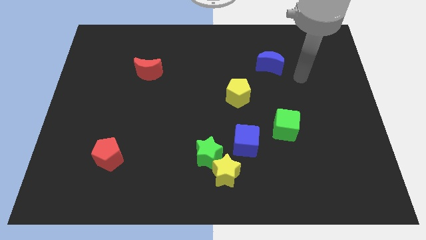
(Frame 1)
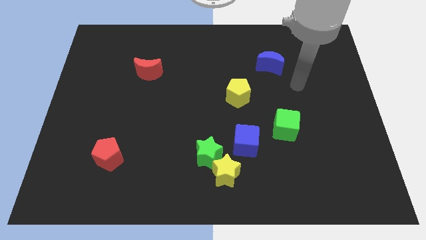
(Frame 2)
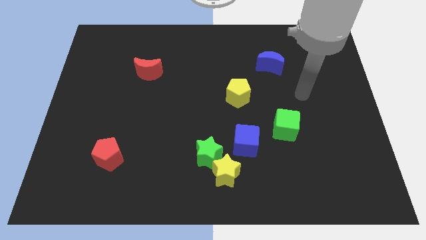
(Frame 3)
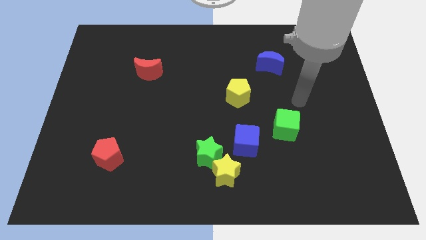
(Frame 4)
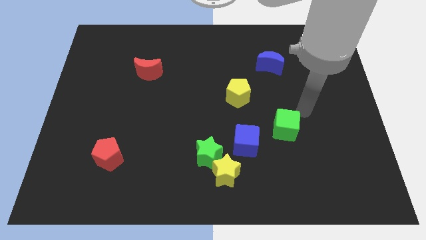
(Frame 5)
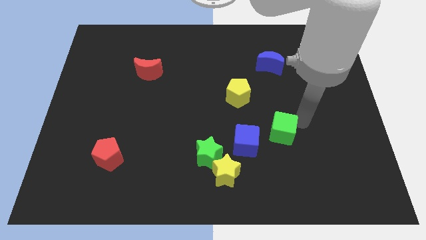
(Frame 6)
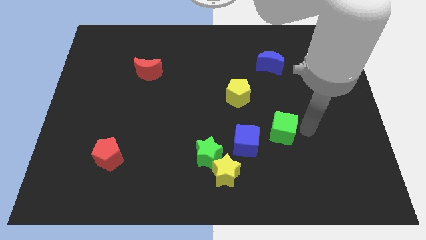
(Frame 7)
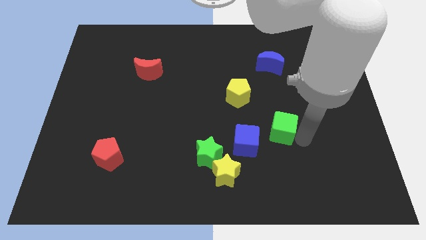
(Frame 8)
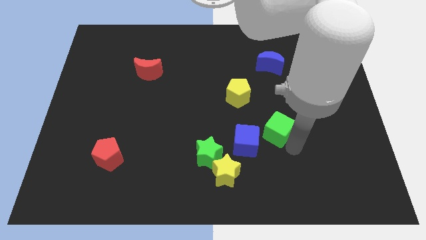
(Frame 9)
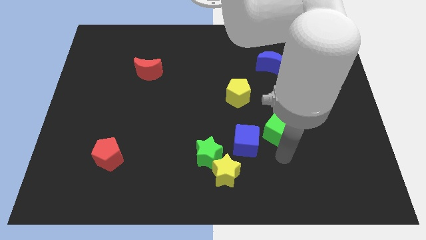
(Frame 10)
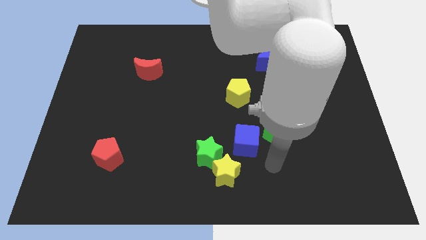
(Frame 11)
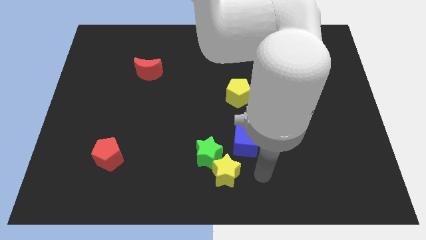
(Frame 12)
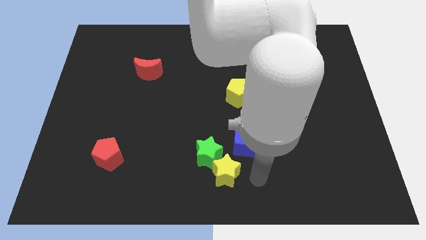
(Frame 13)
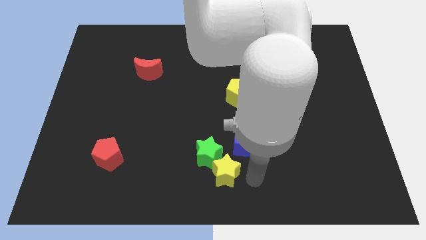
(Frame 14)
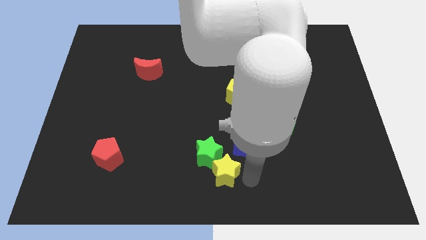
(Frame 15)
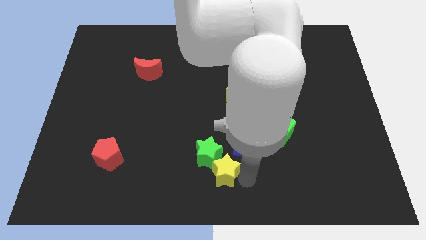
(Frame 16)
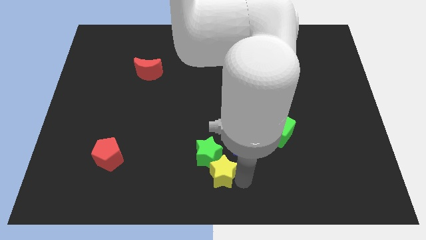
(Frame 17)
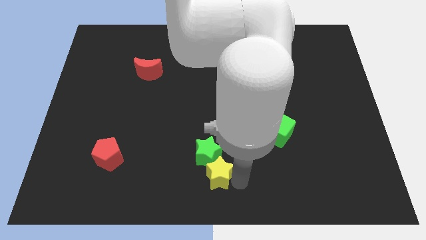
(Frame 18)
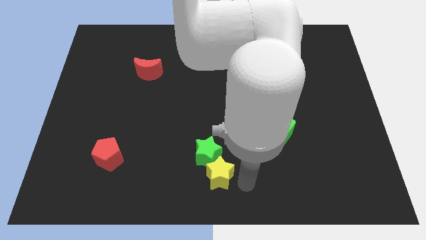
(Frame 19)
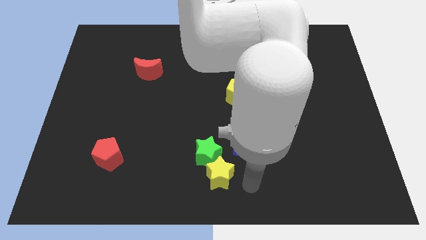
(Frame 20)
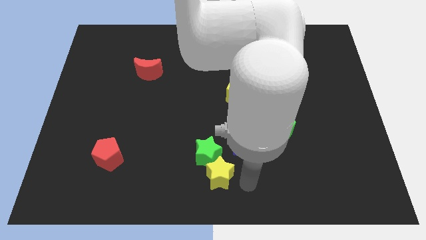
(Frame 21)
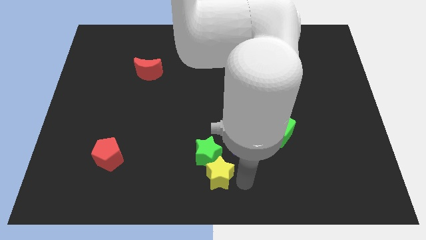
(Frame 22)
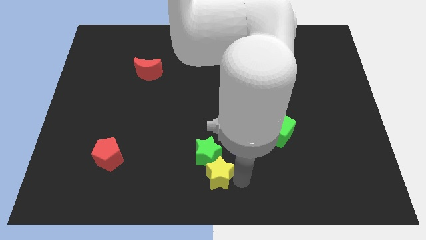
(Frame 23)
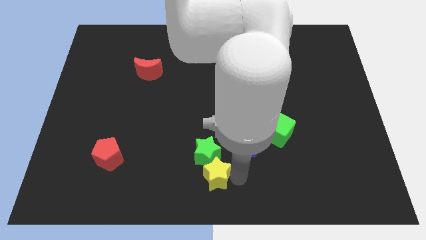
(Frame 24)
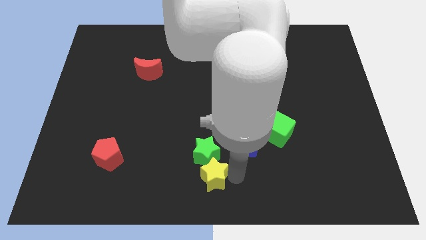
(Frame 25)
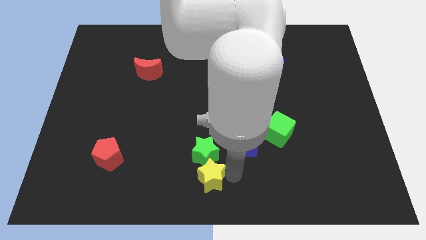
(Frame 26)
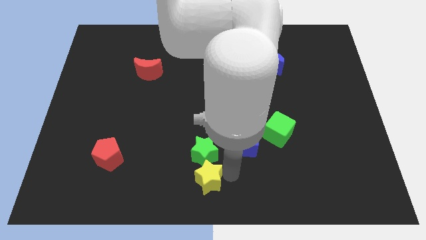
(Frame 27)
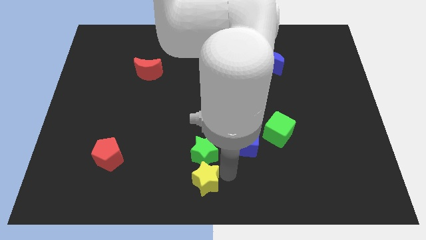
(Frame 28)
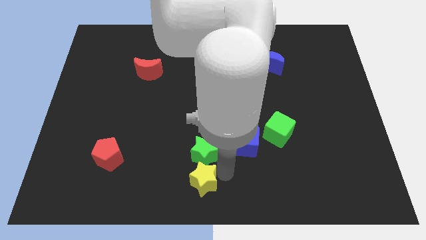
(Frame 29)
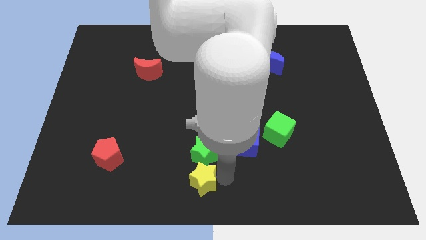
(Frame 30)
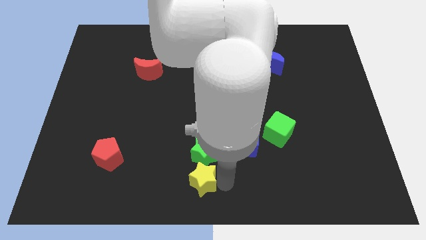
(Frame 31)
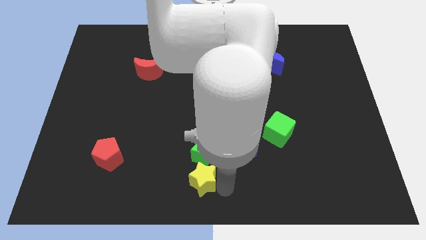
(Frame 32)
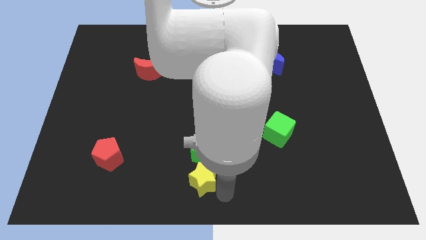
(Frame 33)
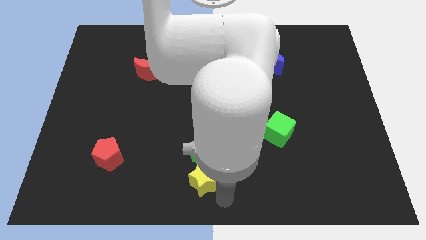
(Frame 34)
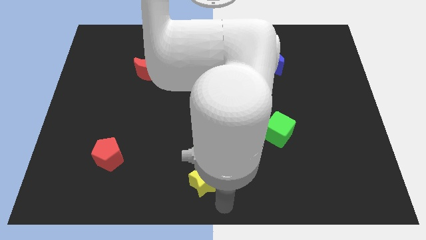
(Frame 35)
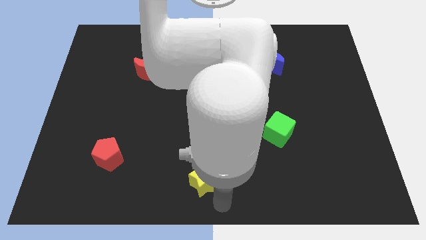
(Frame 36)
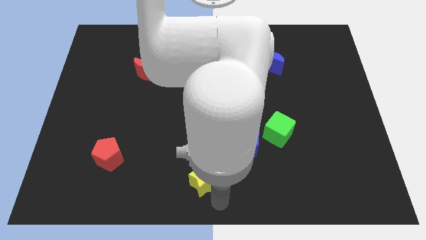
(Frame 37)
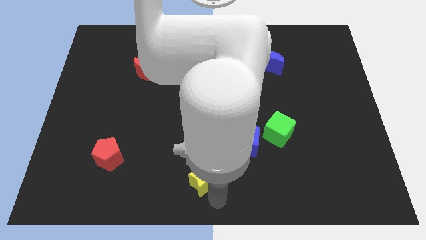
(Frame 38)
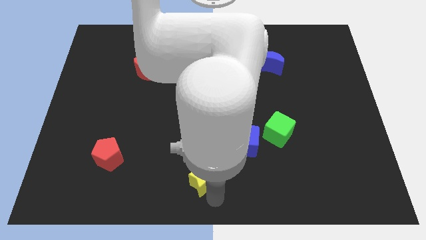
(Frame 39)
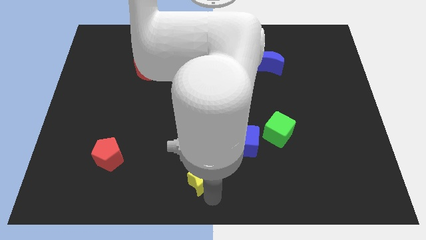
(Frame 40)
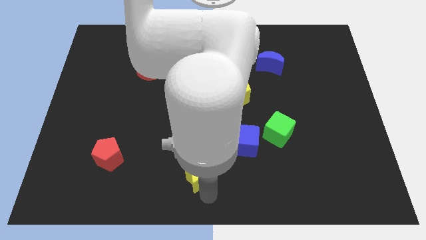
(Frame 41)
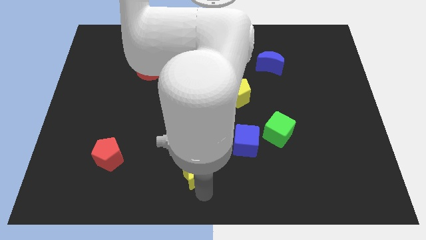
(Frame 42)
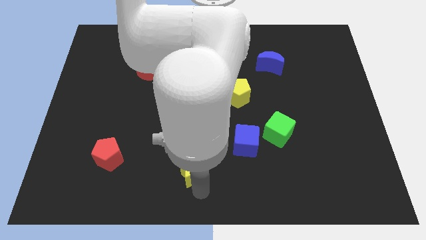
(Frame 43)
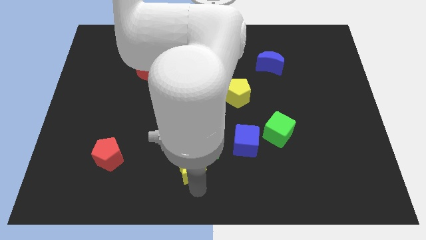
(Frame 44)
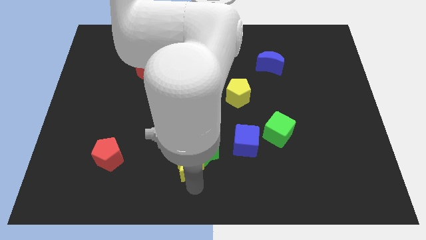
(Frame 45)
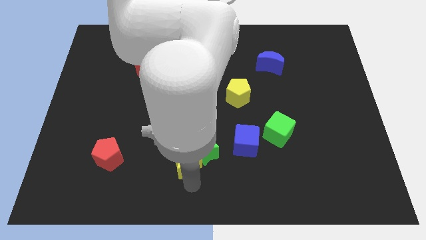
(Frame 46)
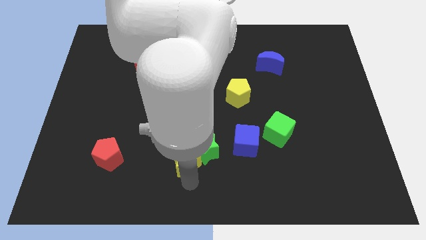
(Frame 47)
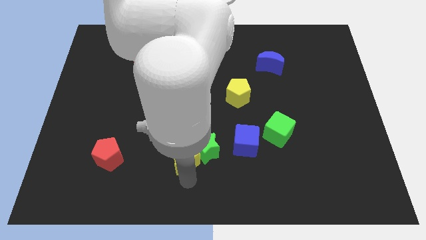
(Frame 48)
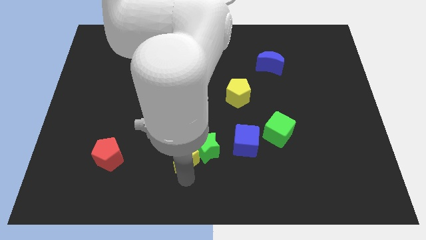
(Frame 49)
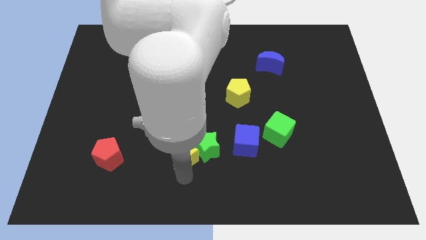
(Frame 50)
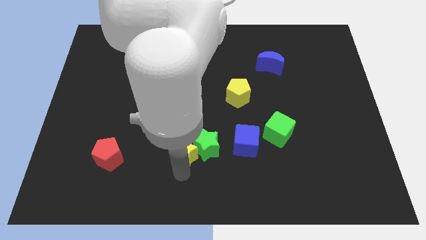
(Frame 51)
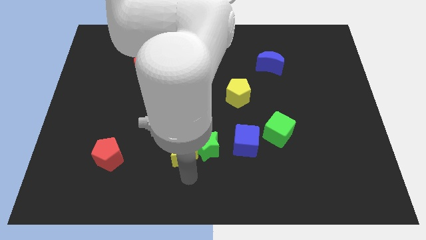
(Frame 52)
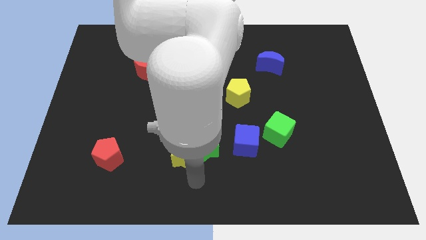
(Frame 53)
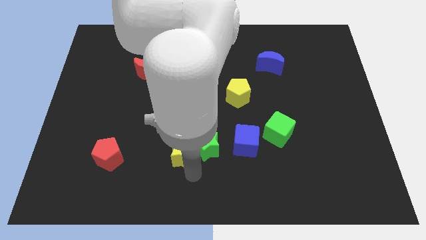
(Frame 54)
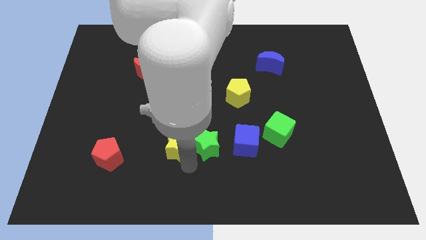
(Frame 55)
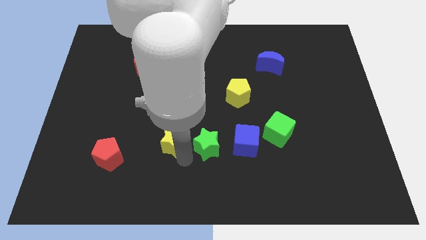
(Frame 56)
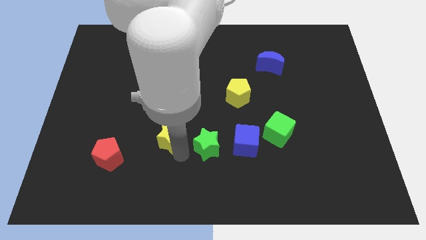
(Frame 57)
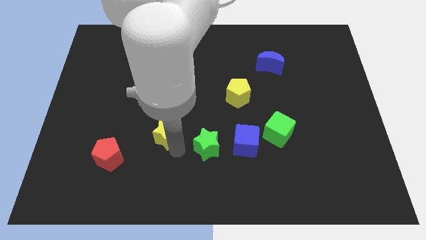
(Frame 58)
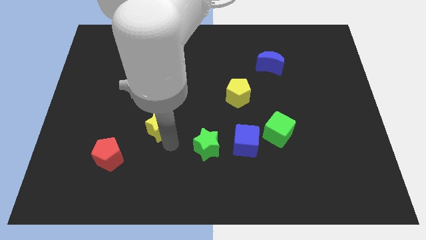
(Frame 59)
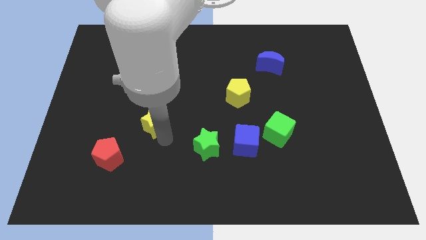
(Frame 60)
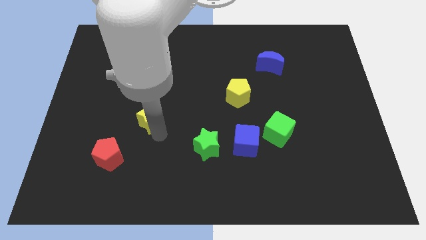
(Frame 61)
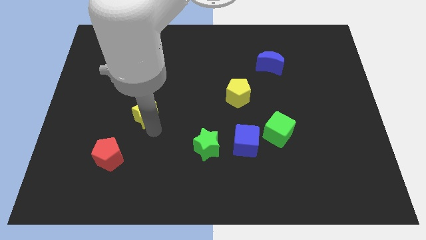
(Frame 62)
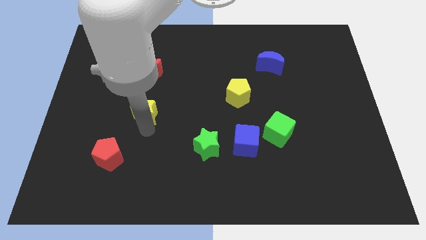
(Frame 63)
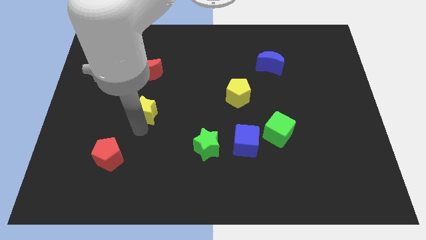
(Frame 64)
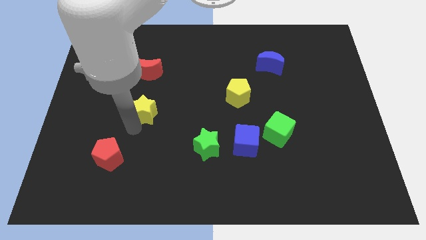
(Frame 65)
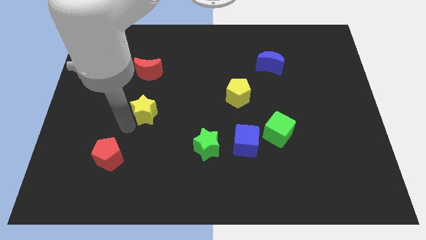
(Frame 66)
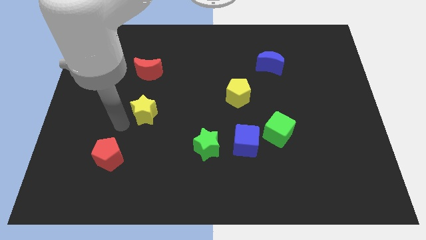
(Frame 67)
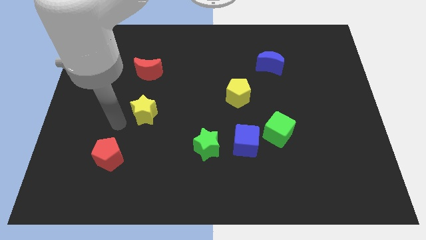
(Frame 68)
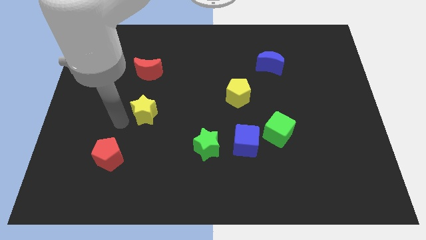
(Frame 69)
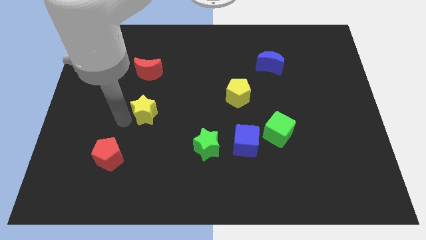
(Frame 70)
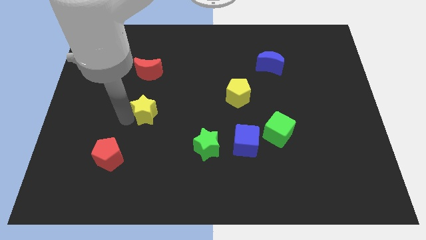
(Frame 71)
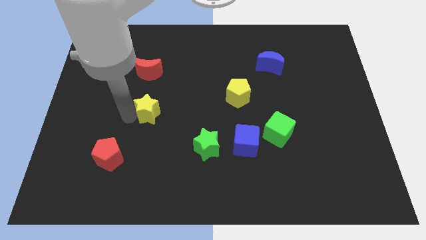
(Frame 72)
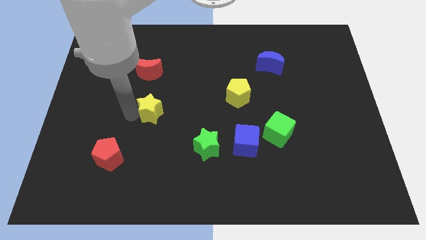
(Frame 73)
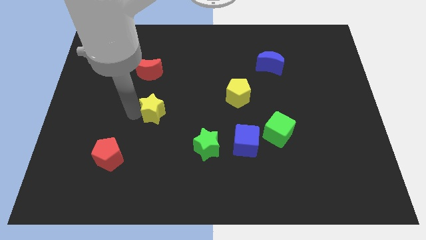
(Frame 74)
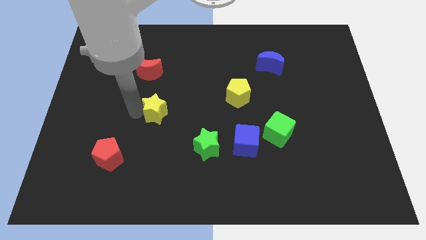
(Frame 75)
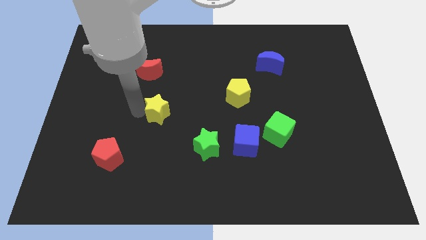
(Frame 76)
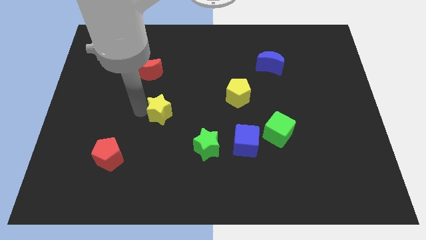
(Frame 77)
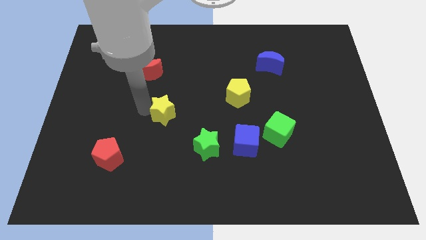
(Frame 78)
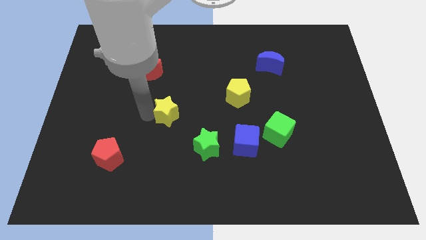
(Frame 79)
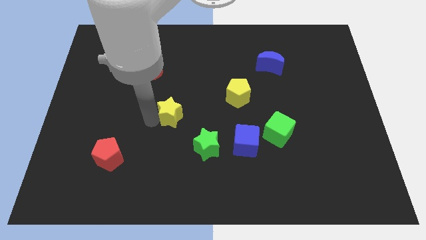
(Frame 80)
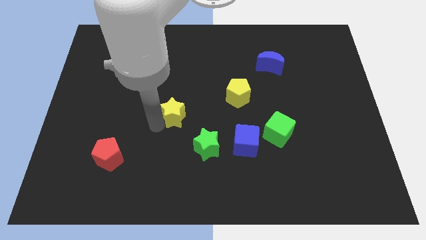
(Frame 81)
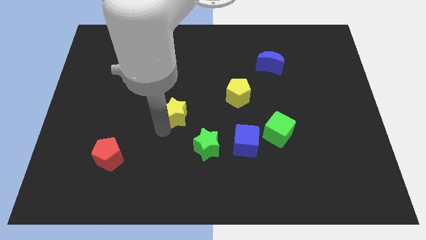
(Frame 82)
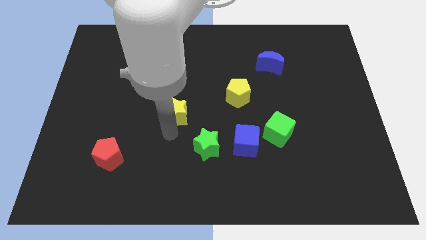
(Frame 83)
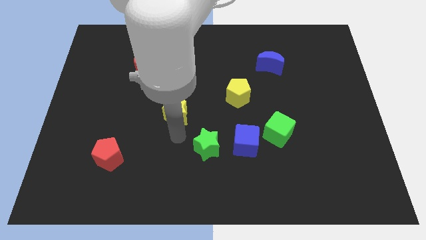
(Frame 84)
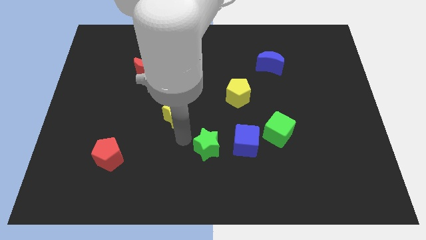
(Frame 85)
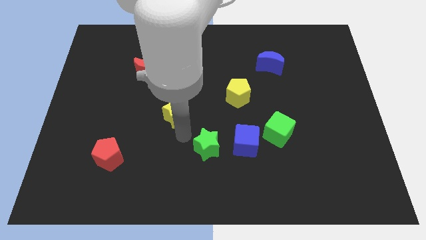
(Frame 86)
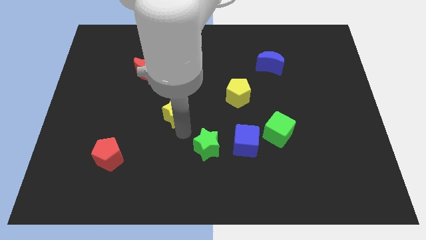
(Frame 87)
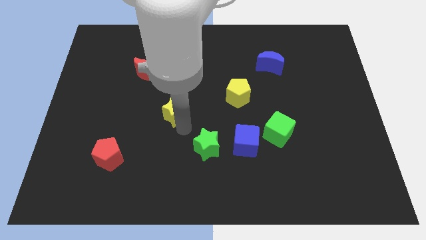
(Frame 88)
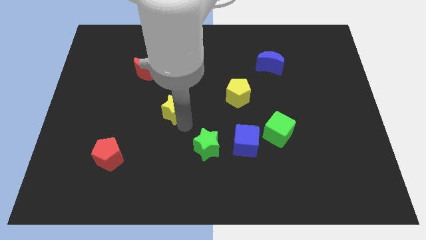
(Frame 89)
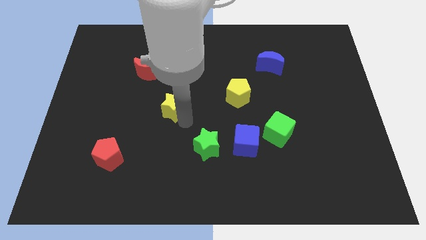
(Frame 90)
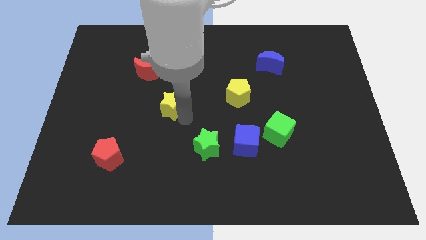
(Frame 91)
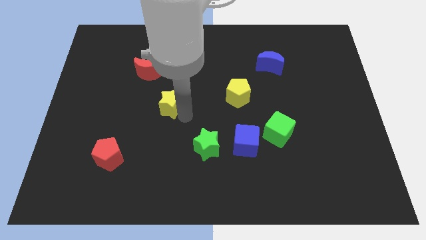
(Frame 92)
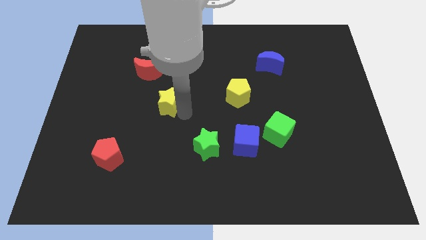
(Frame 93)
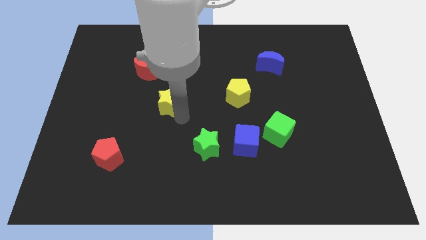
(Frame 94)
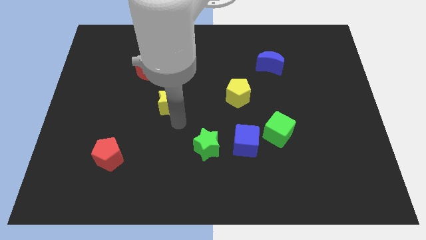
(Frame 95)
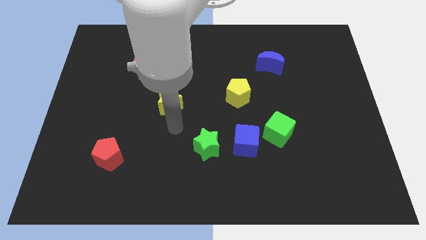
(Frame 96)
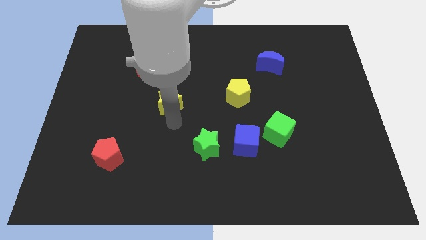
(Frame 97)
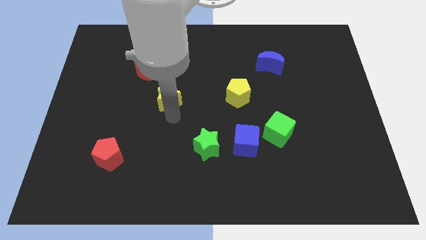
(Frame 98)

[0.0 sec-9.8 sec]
move the yellow star to the bottom right of the red moon
